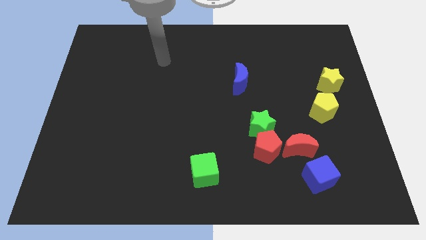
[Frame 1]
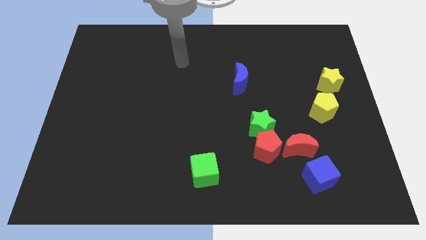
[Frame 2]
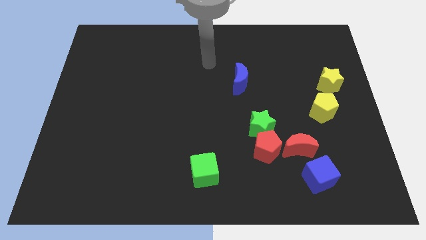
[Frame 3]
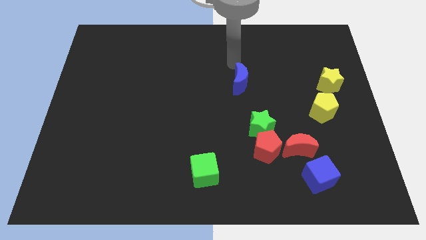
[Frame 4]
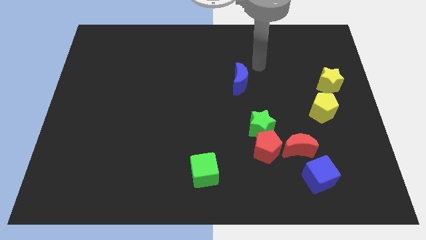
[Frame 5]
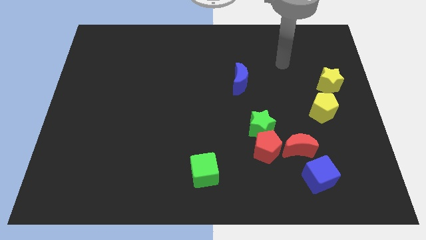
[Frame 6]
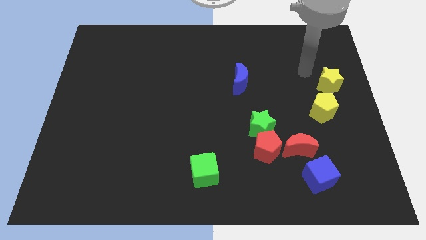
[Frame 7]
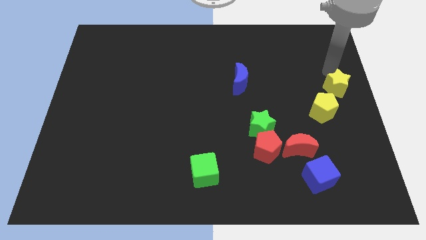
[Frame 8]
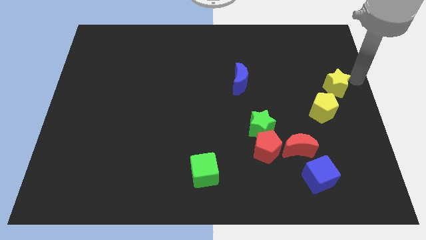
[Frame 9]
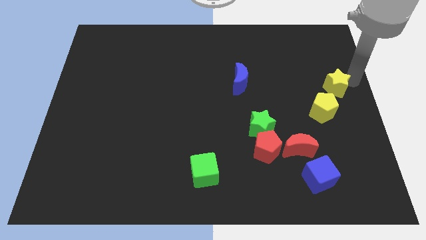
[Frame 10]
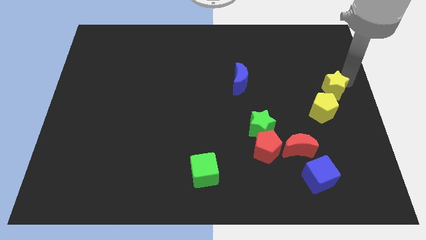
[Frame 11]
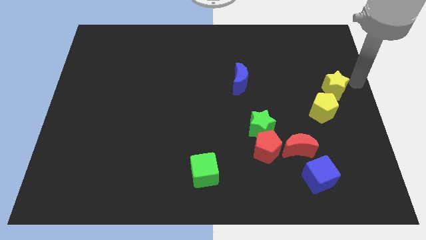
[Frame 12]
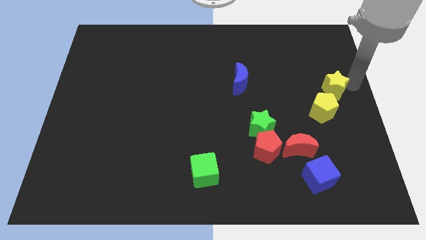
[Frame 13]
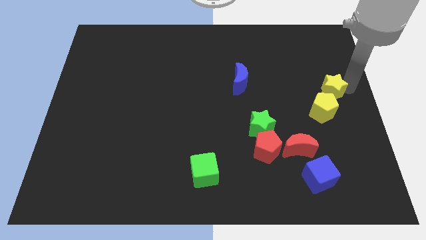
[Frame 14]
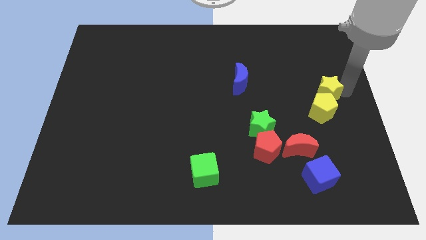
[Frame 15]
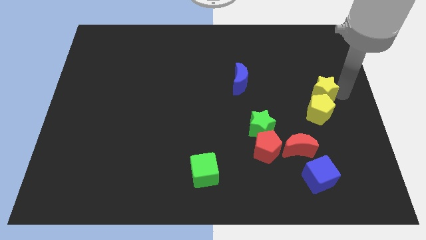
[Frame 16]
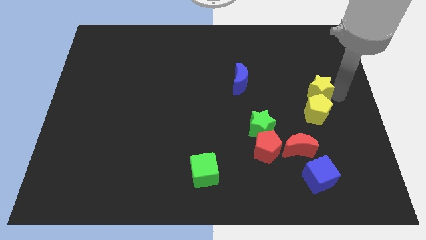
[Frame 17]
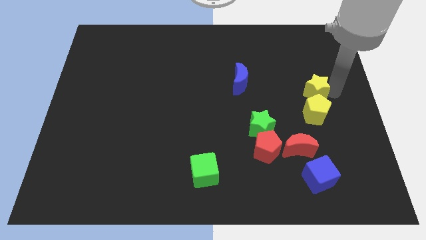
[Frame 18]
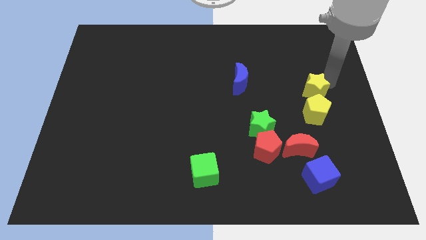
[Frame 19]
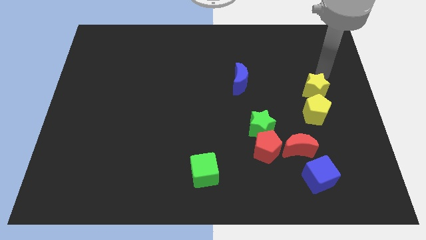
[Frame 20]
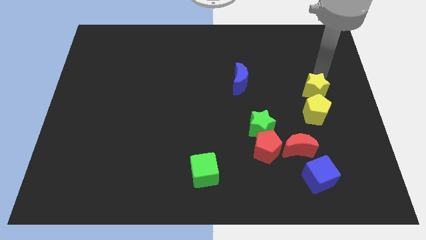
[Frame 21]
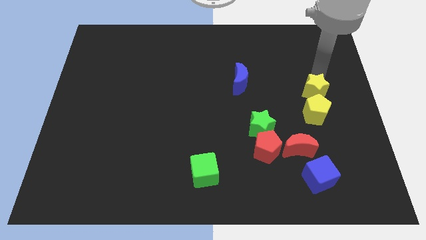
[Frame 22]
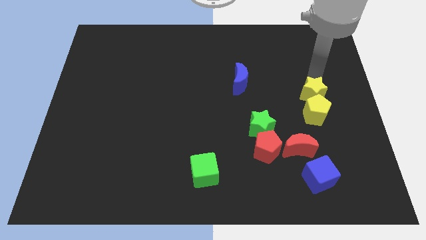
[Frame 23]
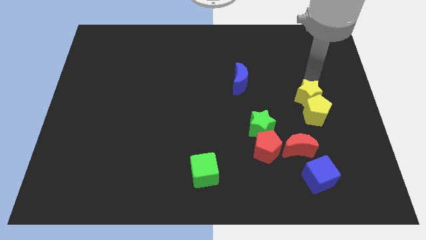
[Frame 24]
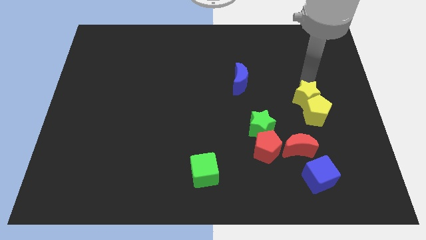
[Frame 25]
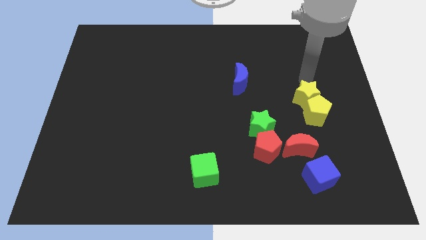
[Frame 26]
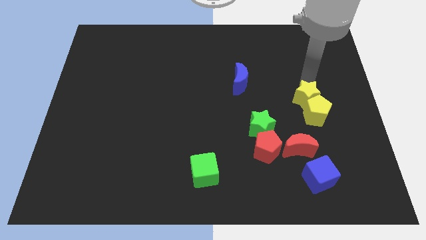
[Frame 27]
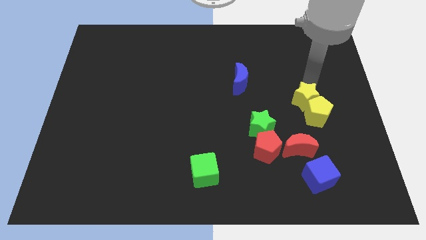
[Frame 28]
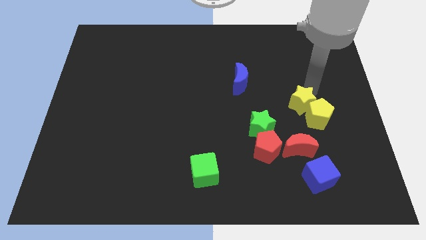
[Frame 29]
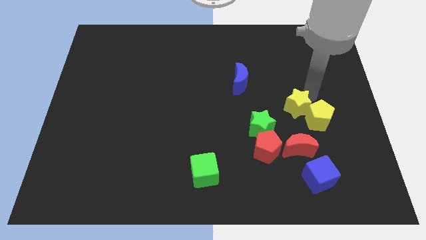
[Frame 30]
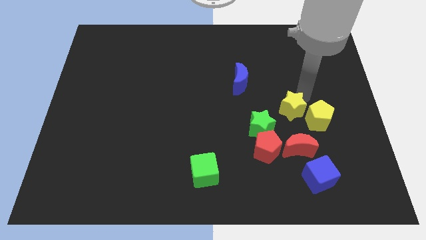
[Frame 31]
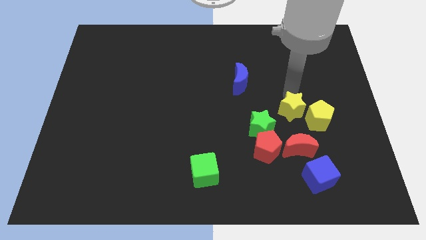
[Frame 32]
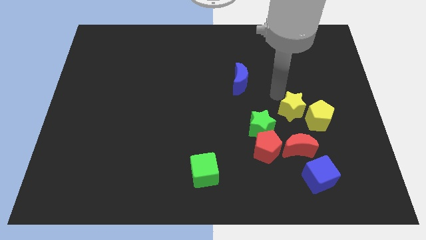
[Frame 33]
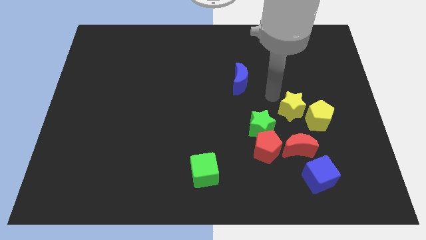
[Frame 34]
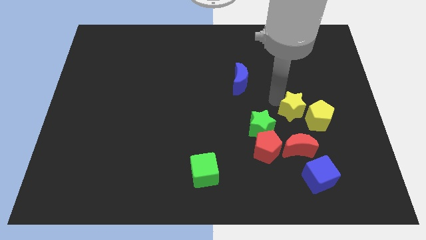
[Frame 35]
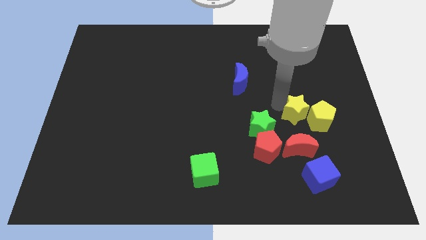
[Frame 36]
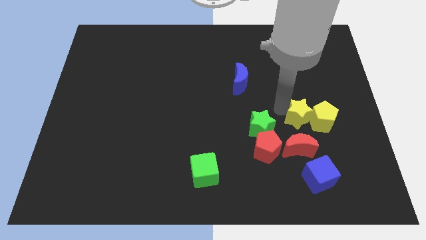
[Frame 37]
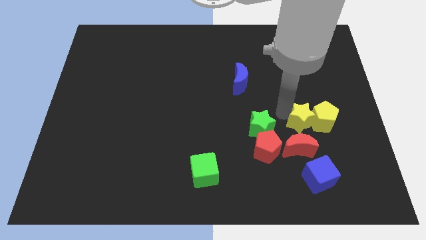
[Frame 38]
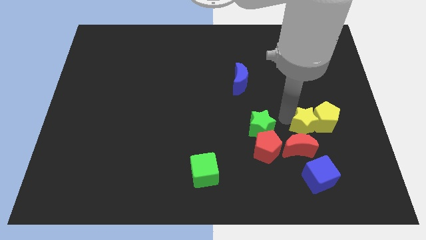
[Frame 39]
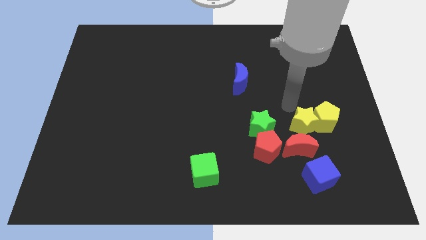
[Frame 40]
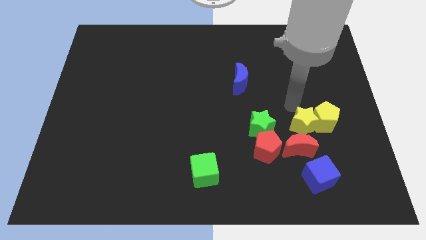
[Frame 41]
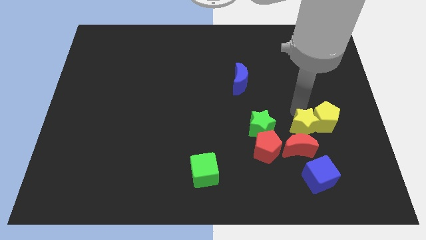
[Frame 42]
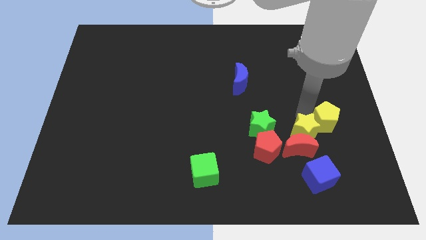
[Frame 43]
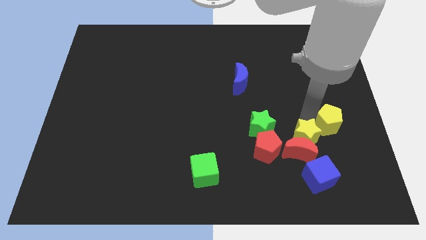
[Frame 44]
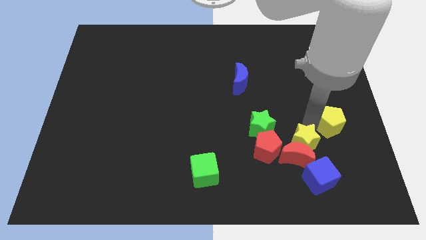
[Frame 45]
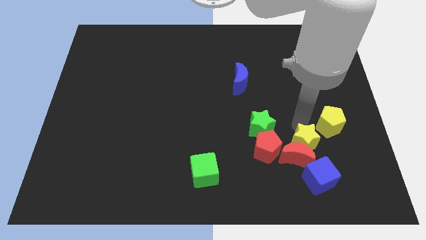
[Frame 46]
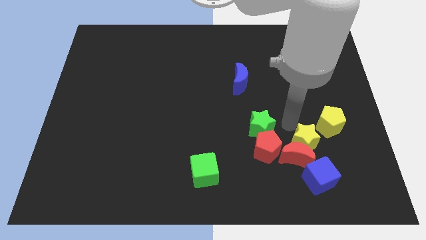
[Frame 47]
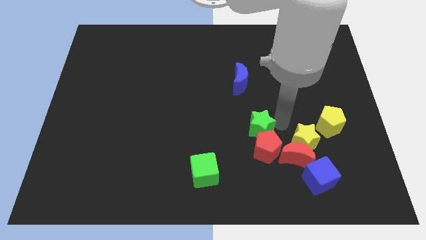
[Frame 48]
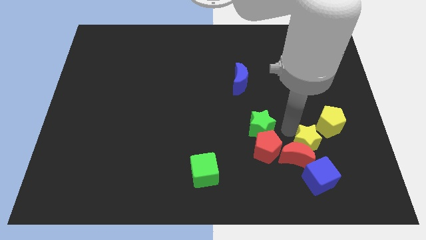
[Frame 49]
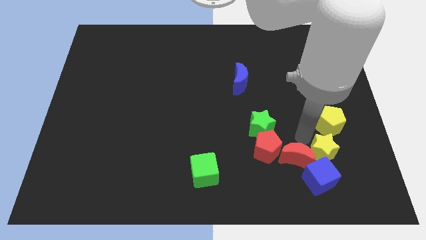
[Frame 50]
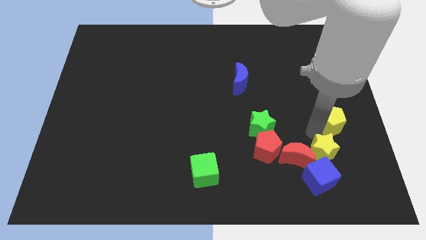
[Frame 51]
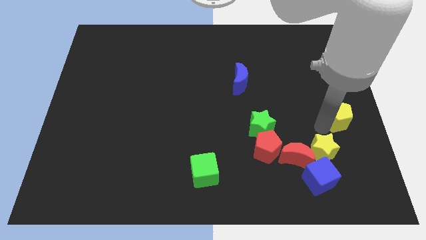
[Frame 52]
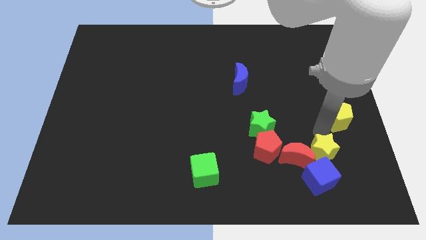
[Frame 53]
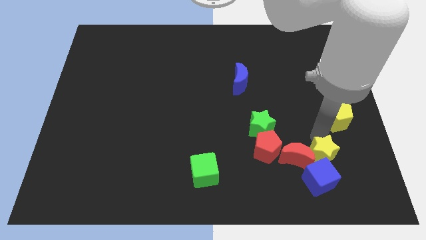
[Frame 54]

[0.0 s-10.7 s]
move the yellow star close to the blue cube

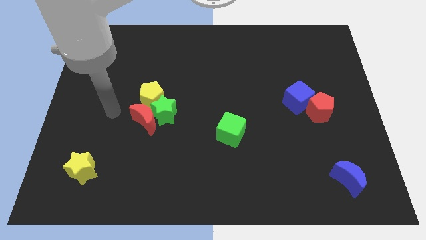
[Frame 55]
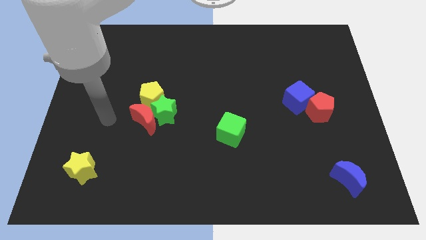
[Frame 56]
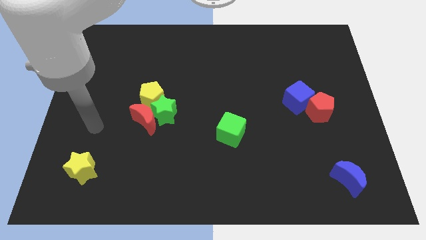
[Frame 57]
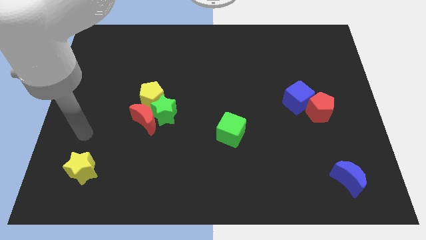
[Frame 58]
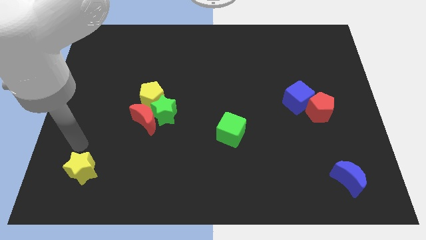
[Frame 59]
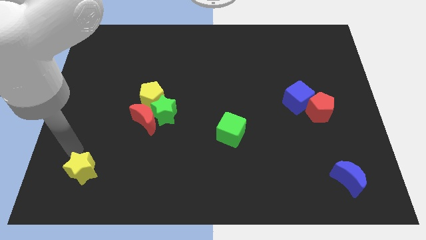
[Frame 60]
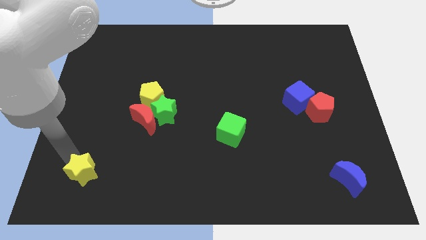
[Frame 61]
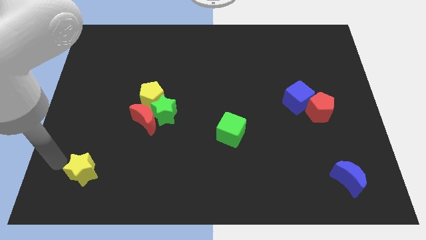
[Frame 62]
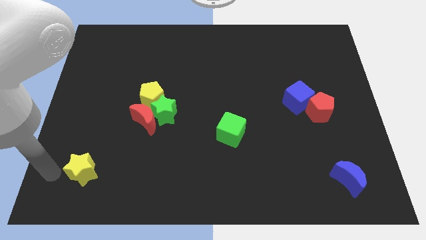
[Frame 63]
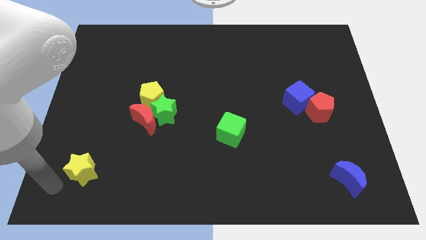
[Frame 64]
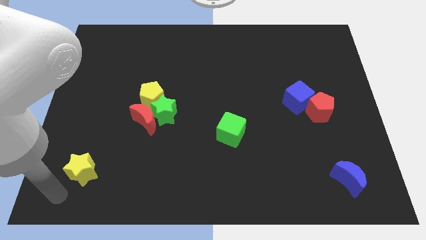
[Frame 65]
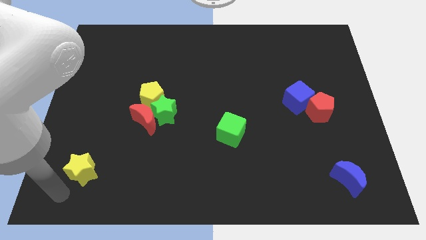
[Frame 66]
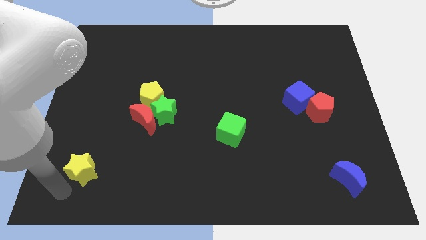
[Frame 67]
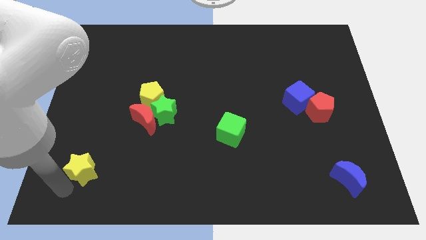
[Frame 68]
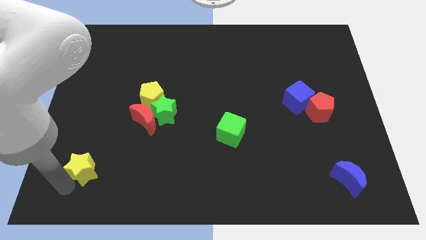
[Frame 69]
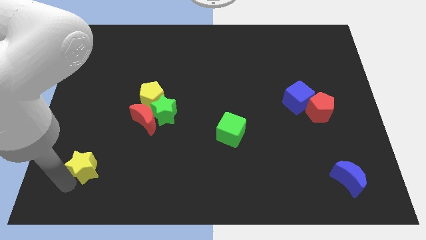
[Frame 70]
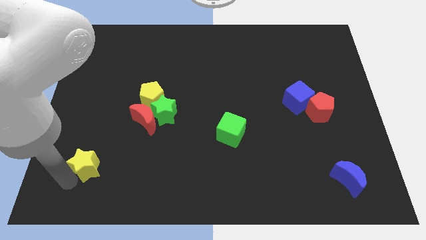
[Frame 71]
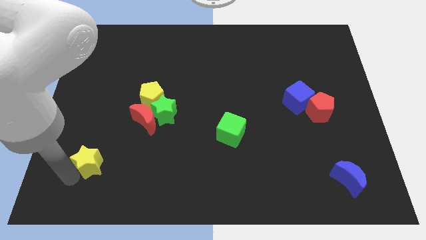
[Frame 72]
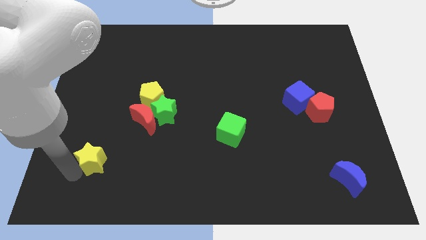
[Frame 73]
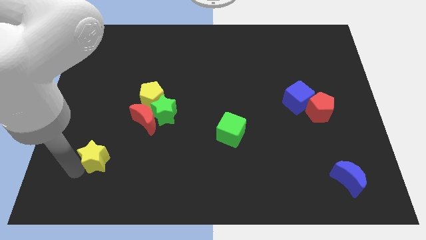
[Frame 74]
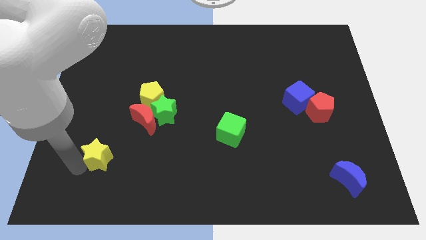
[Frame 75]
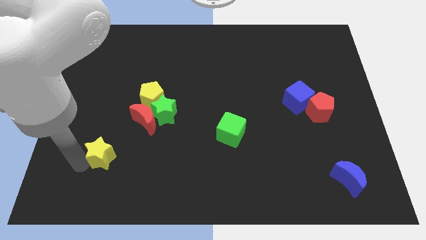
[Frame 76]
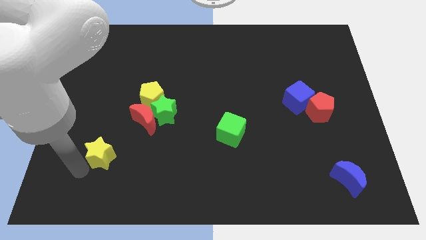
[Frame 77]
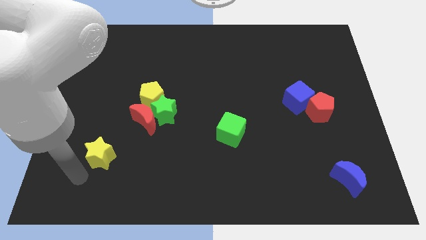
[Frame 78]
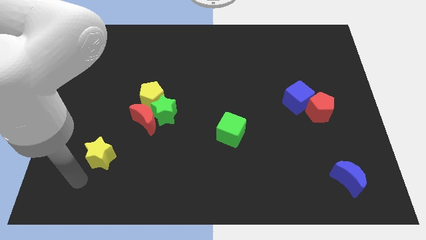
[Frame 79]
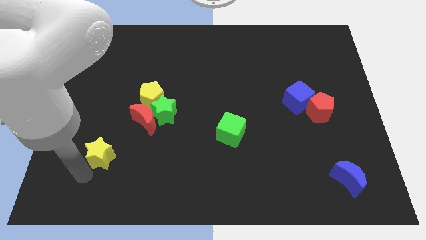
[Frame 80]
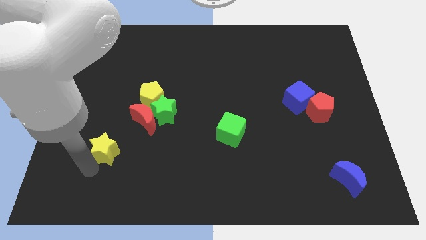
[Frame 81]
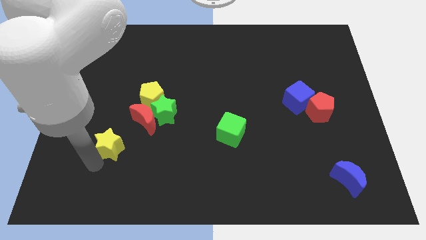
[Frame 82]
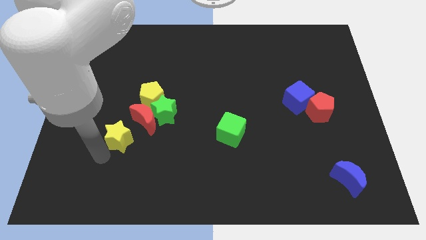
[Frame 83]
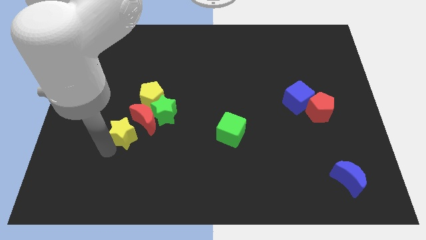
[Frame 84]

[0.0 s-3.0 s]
push the yellow star to the red moon
